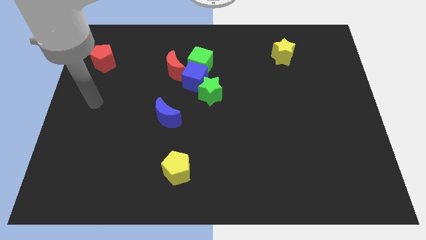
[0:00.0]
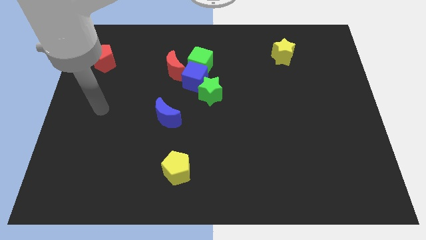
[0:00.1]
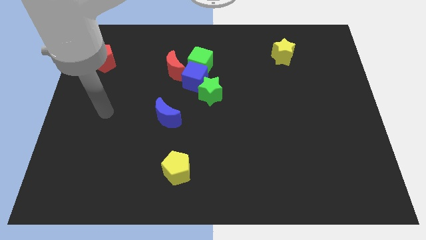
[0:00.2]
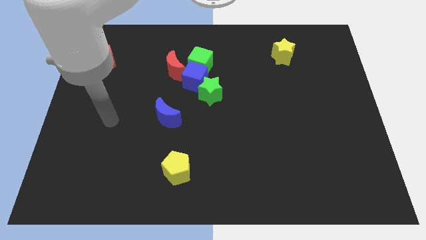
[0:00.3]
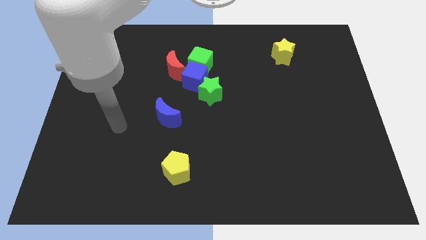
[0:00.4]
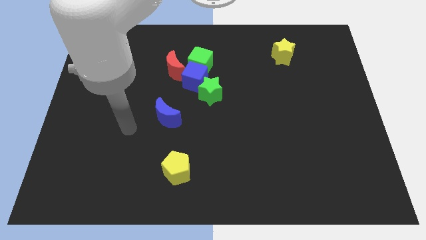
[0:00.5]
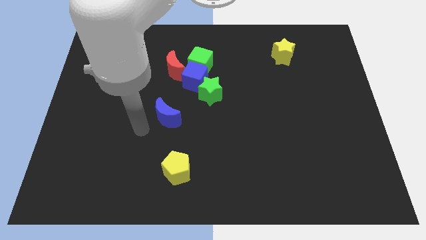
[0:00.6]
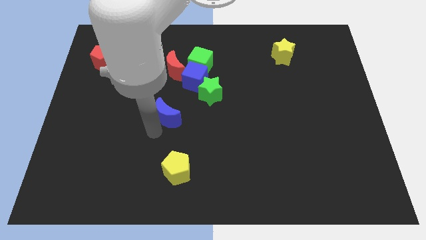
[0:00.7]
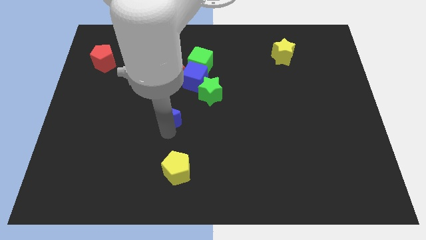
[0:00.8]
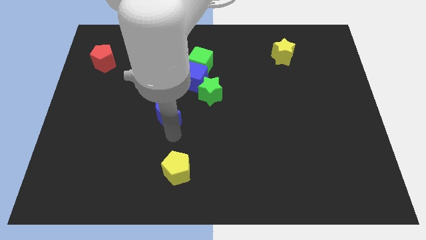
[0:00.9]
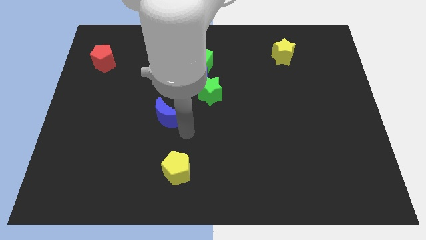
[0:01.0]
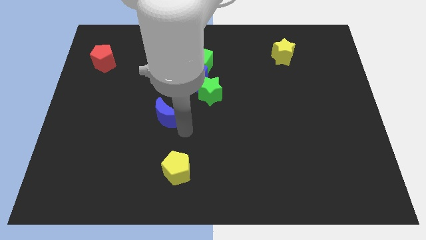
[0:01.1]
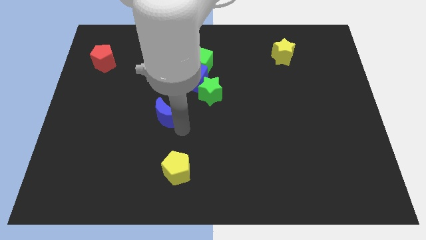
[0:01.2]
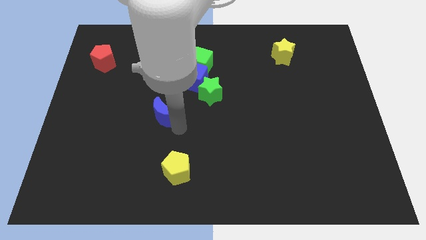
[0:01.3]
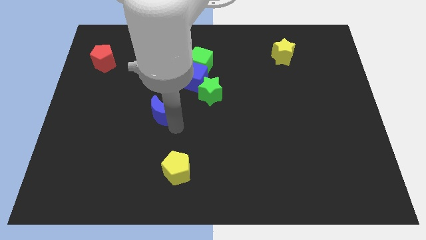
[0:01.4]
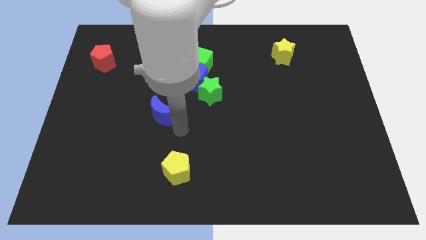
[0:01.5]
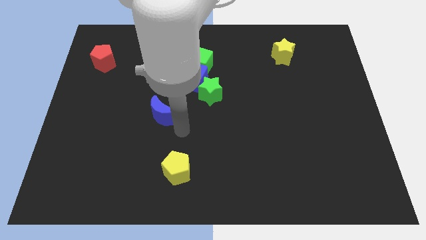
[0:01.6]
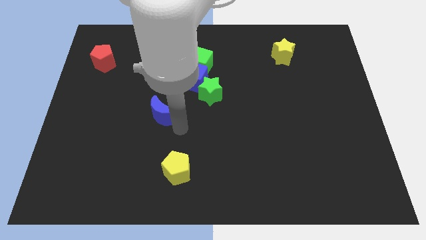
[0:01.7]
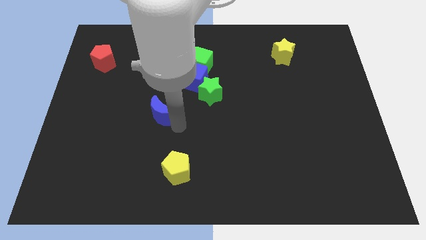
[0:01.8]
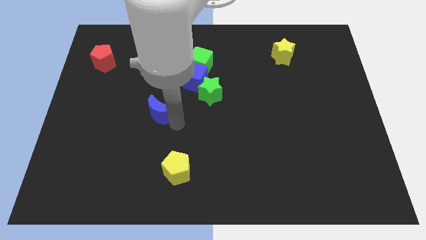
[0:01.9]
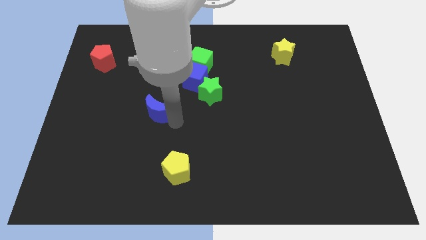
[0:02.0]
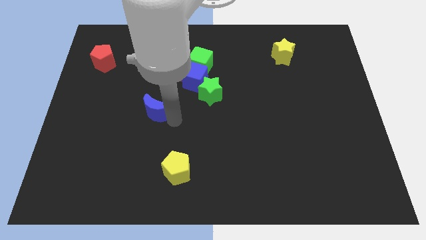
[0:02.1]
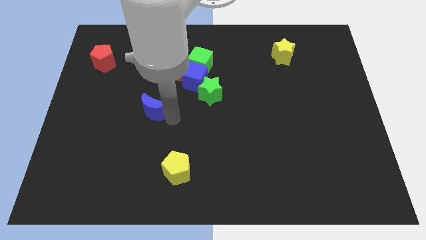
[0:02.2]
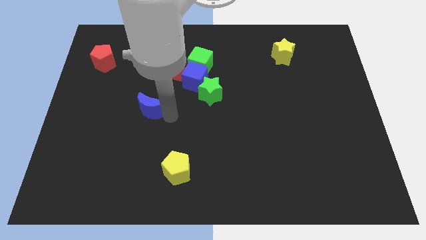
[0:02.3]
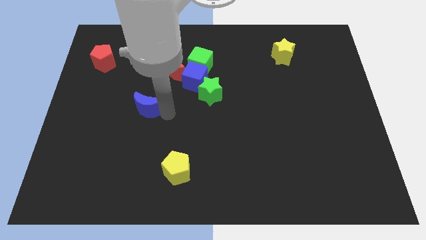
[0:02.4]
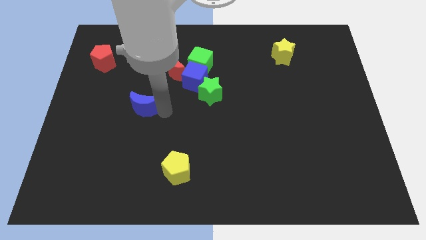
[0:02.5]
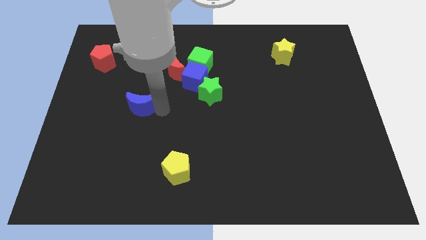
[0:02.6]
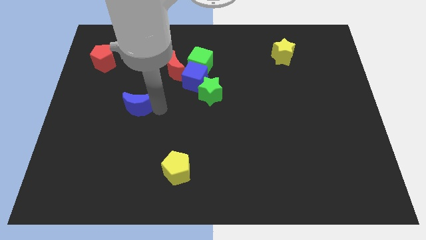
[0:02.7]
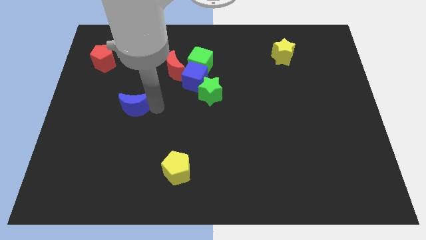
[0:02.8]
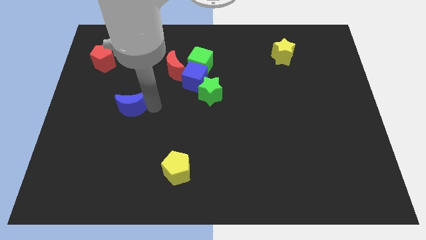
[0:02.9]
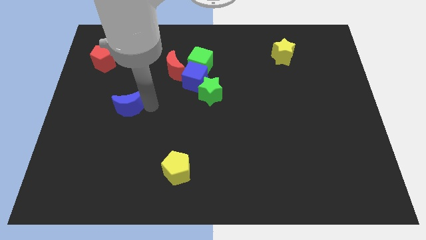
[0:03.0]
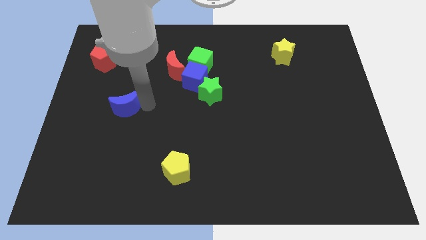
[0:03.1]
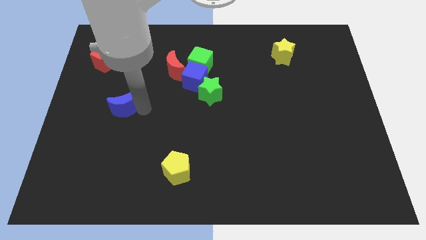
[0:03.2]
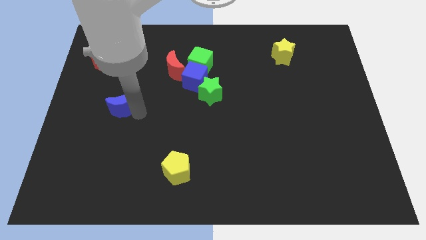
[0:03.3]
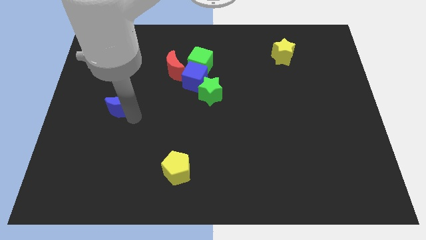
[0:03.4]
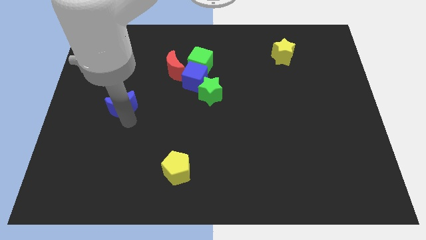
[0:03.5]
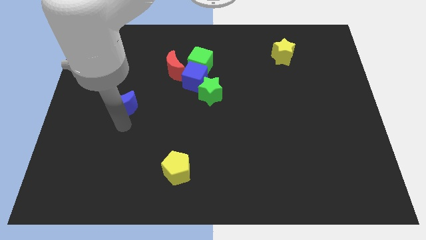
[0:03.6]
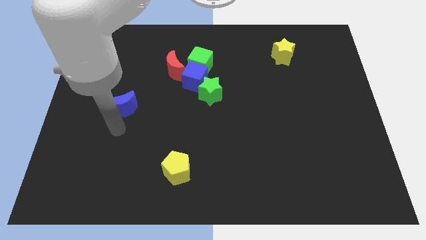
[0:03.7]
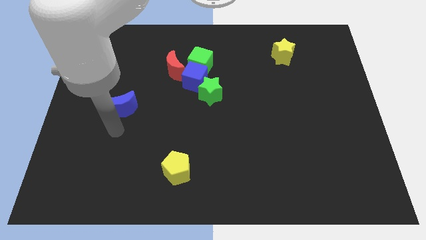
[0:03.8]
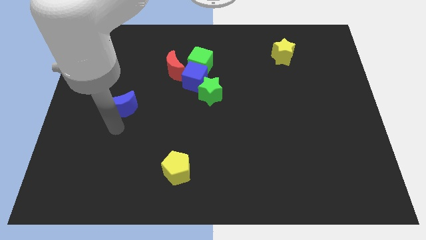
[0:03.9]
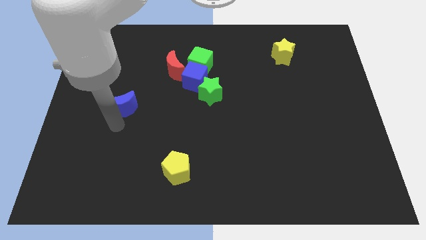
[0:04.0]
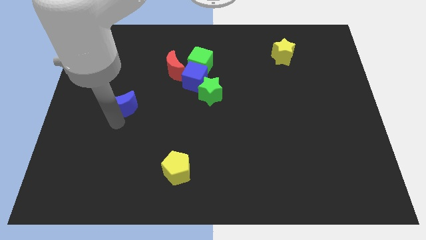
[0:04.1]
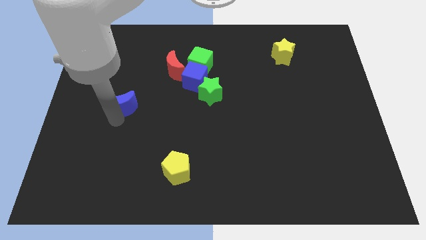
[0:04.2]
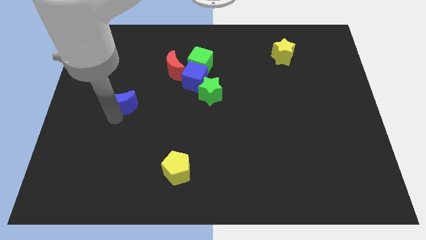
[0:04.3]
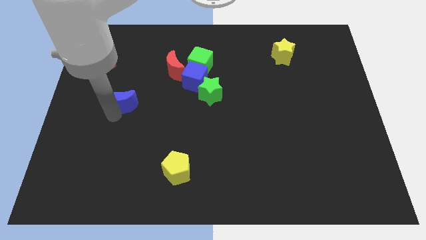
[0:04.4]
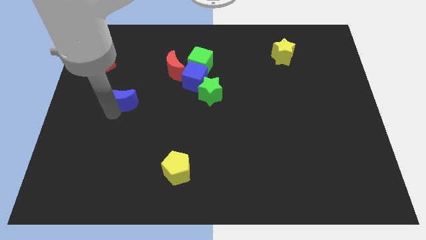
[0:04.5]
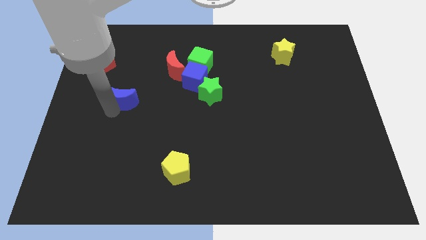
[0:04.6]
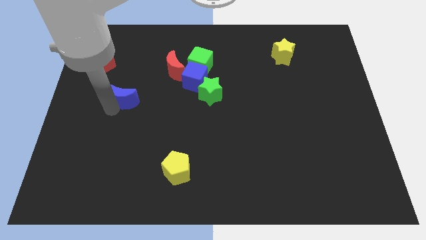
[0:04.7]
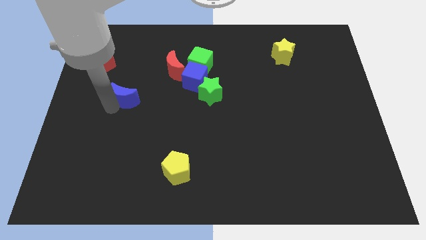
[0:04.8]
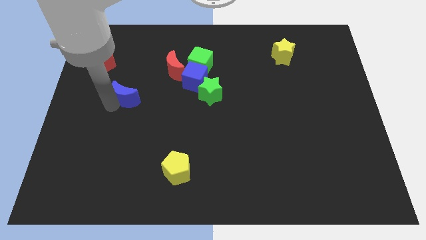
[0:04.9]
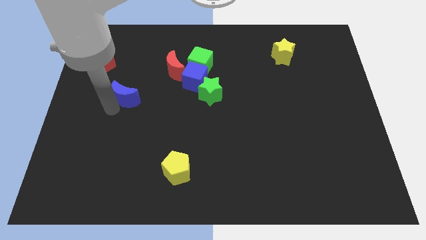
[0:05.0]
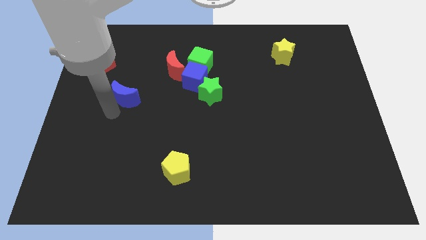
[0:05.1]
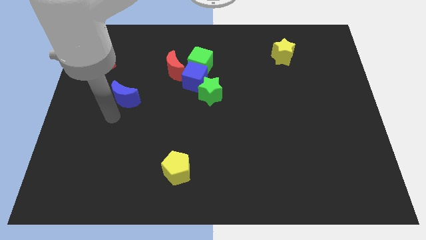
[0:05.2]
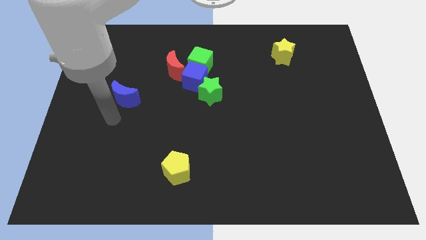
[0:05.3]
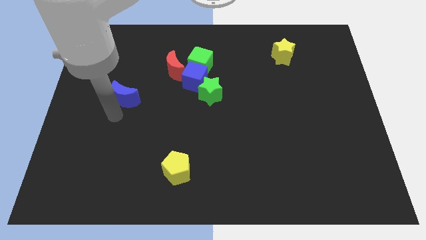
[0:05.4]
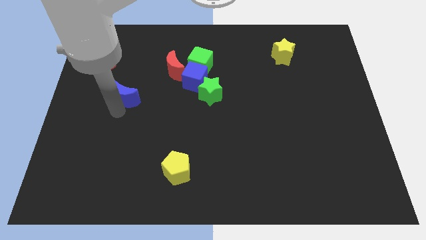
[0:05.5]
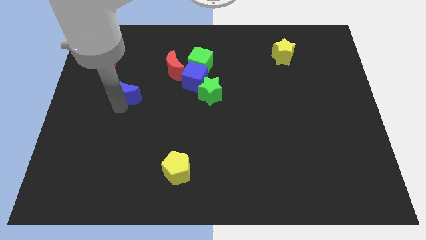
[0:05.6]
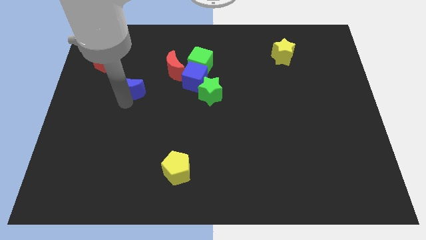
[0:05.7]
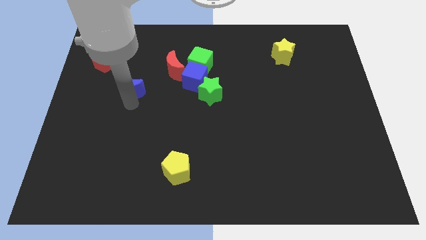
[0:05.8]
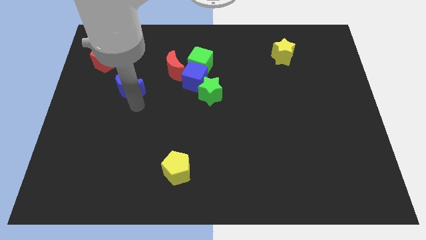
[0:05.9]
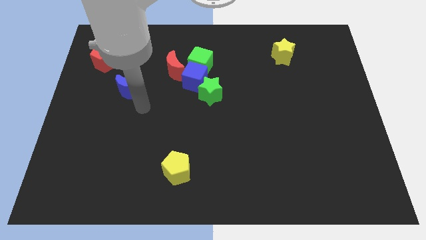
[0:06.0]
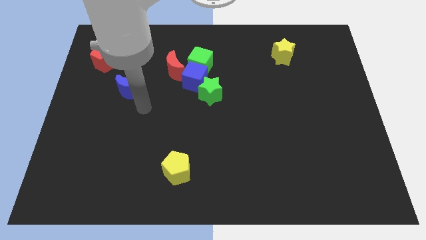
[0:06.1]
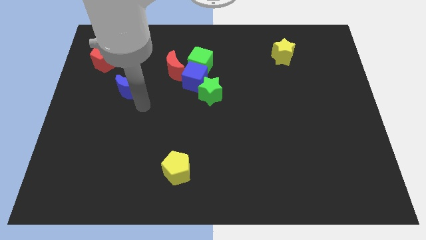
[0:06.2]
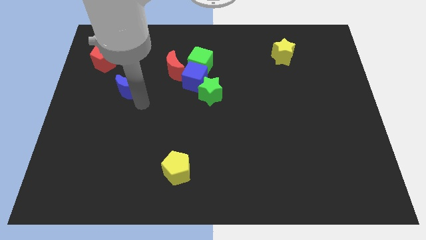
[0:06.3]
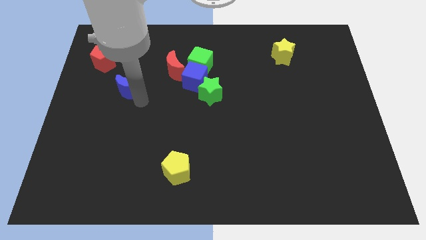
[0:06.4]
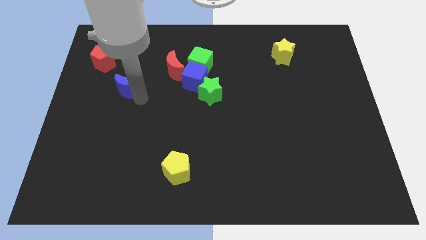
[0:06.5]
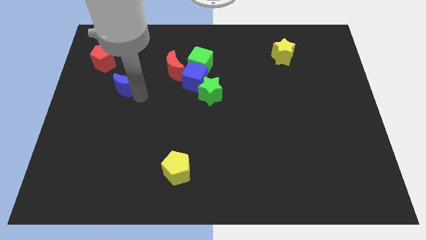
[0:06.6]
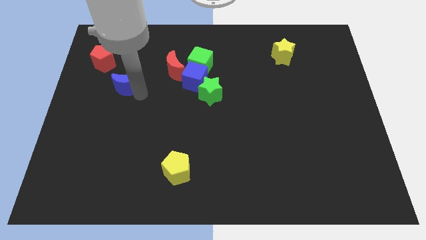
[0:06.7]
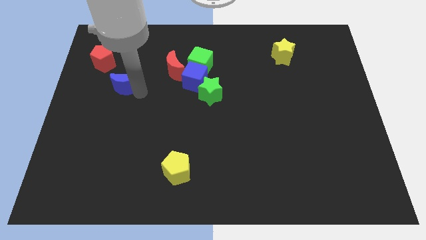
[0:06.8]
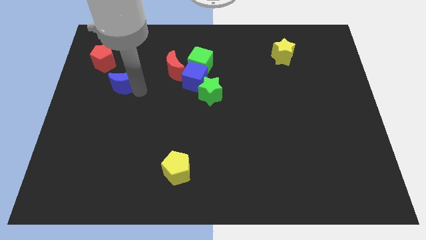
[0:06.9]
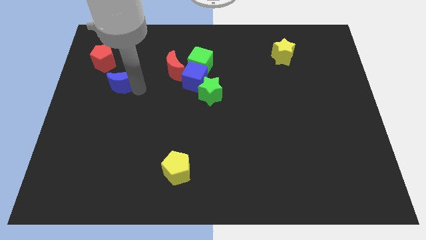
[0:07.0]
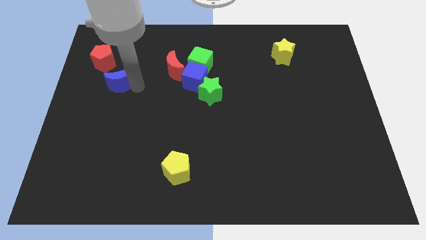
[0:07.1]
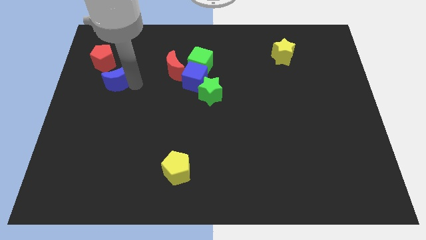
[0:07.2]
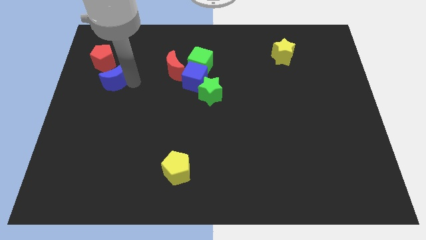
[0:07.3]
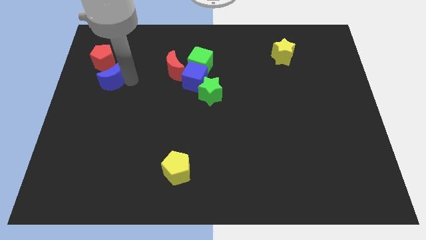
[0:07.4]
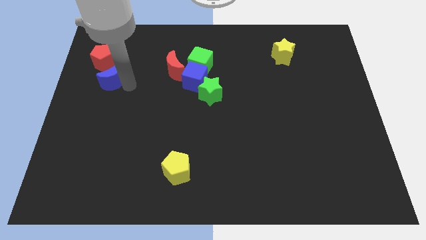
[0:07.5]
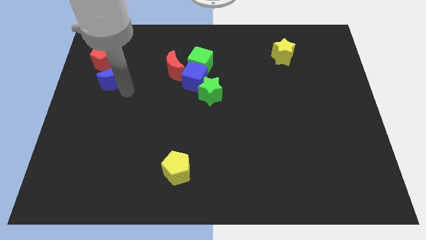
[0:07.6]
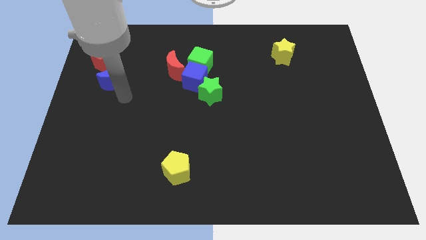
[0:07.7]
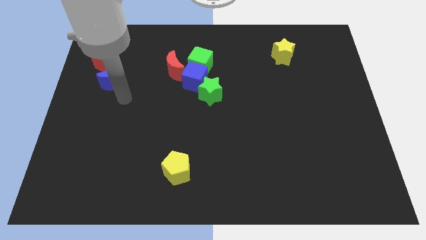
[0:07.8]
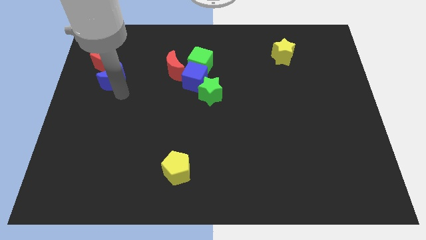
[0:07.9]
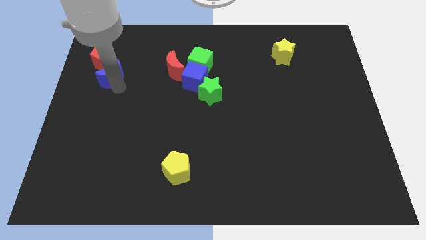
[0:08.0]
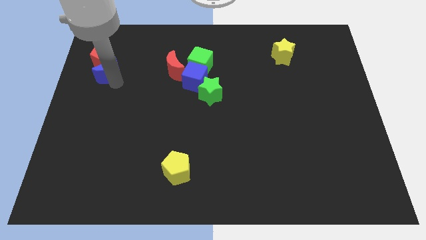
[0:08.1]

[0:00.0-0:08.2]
move the blue moon towards the red pentagon
